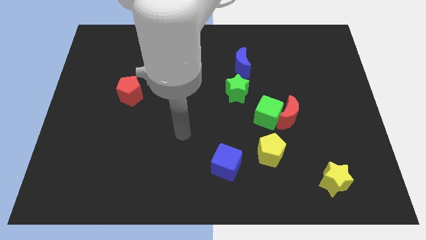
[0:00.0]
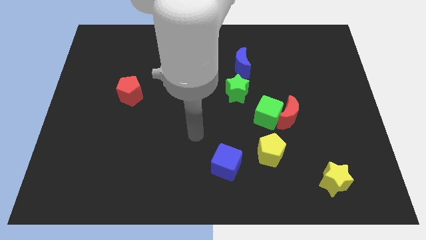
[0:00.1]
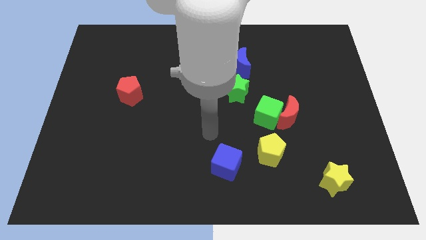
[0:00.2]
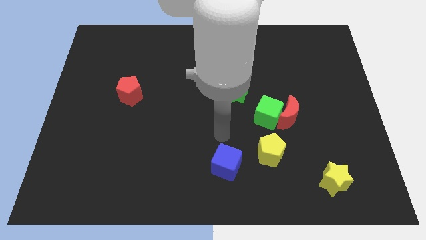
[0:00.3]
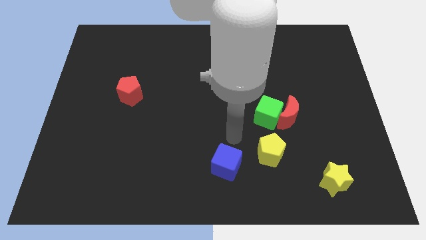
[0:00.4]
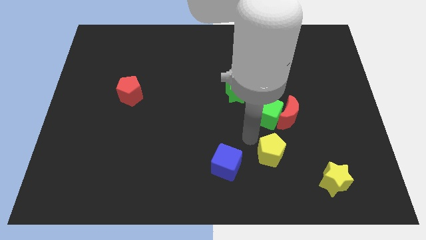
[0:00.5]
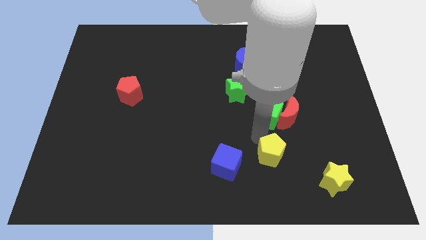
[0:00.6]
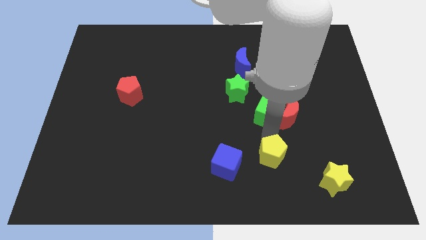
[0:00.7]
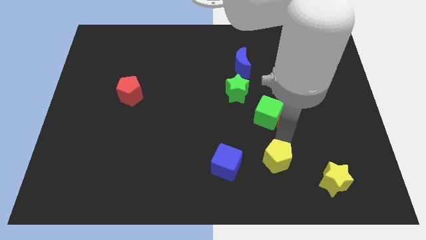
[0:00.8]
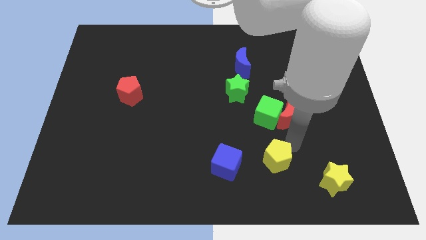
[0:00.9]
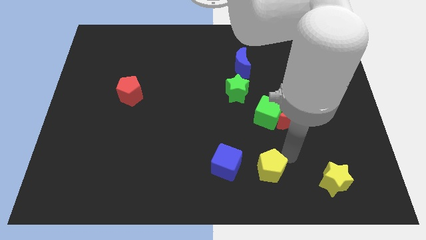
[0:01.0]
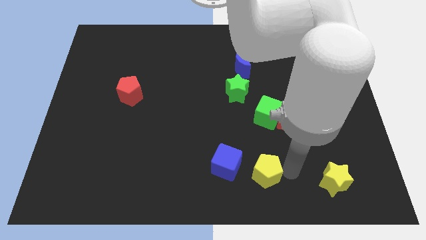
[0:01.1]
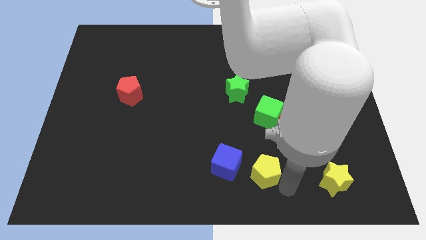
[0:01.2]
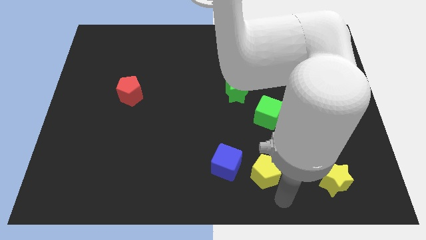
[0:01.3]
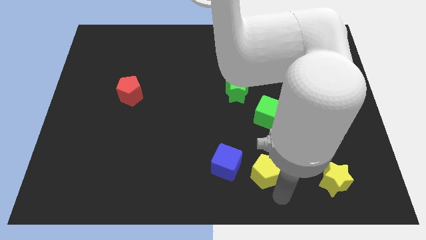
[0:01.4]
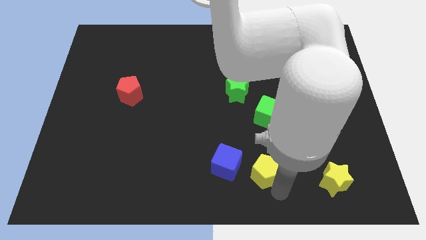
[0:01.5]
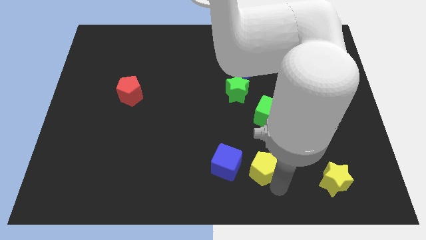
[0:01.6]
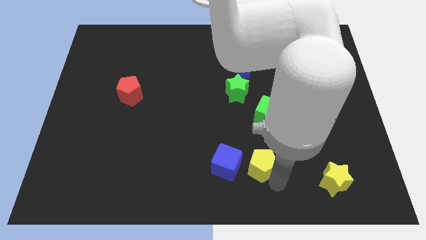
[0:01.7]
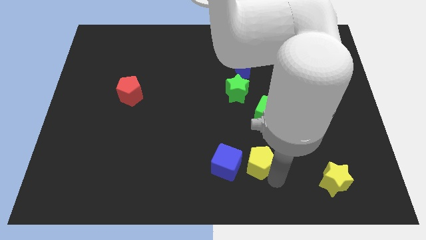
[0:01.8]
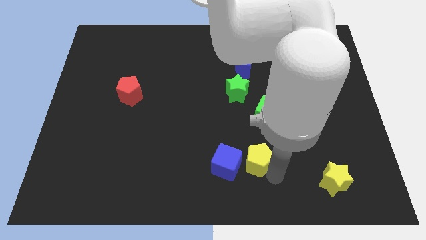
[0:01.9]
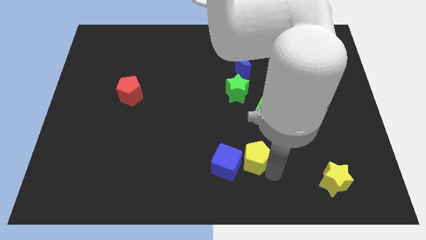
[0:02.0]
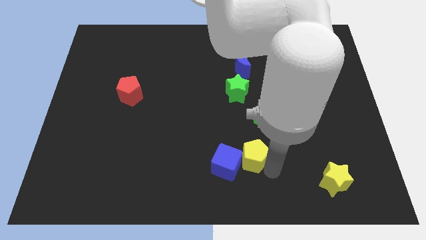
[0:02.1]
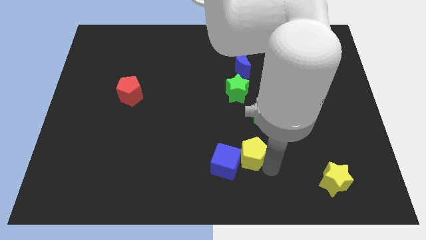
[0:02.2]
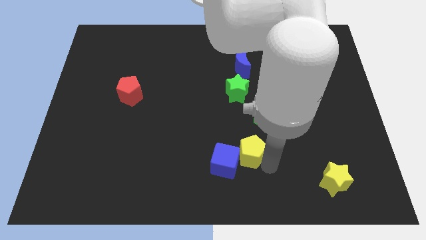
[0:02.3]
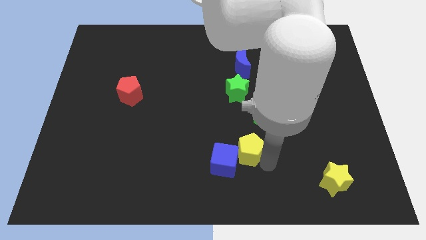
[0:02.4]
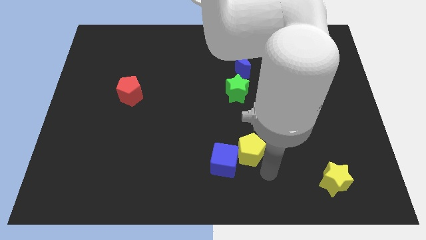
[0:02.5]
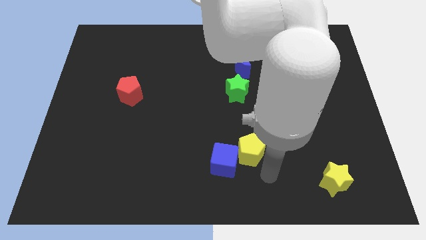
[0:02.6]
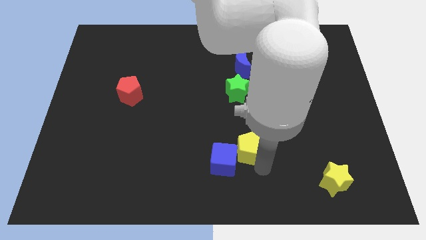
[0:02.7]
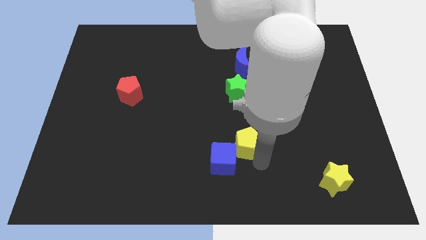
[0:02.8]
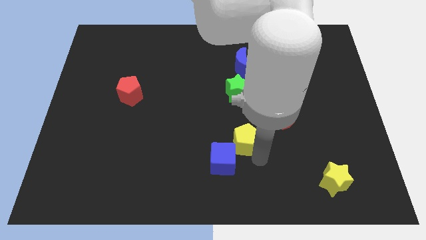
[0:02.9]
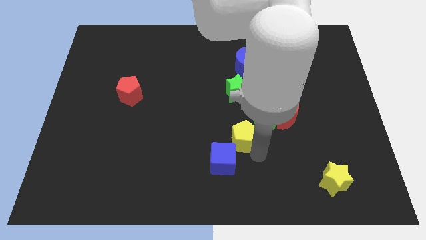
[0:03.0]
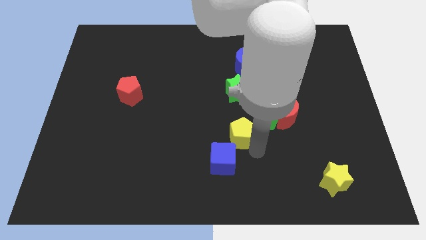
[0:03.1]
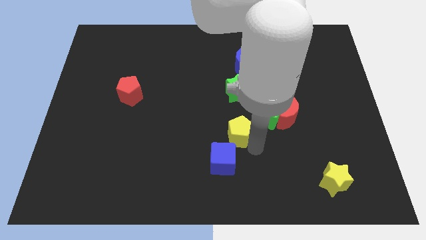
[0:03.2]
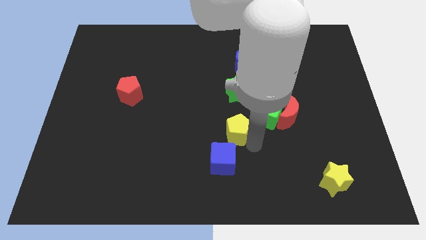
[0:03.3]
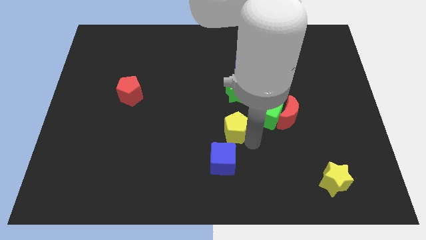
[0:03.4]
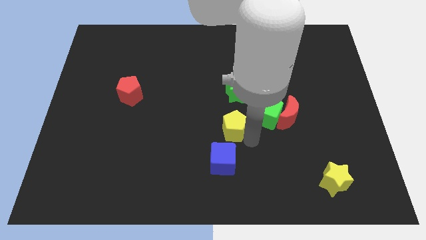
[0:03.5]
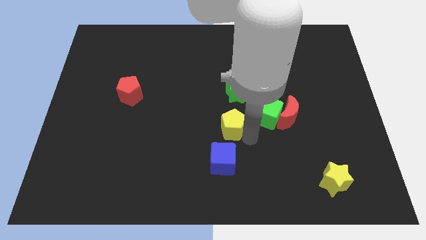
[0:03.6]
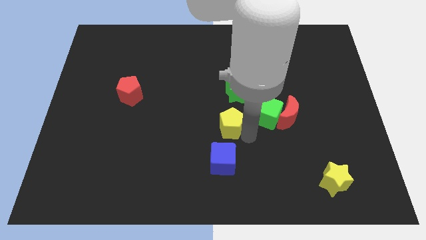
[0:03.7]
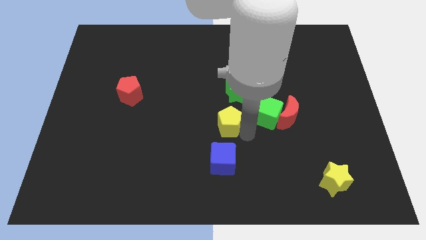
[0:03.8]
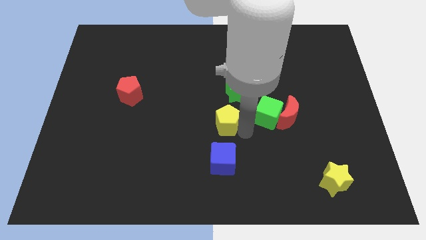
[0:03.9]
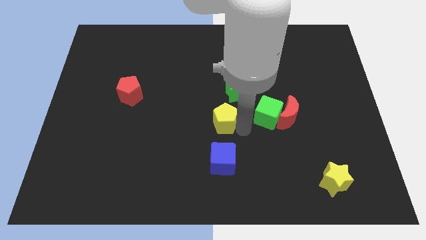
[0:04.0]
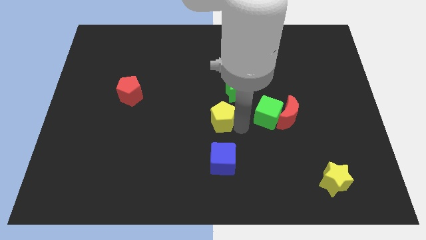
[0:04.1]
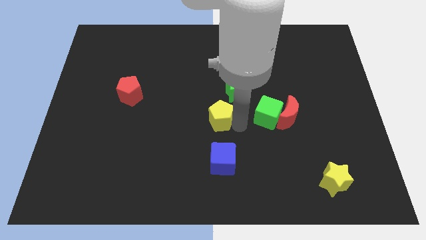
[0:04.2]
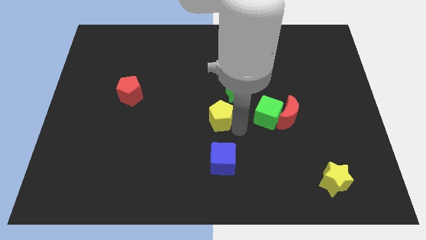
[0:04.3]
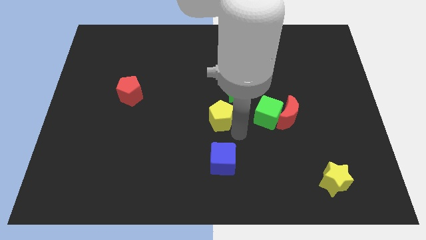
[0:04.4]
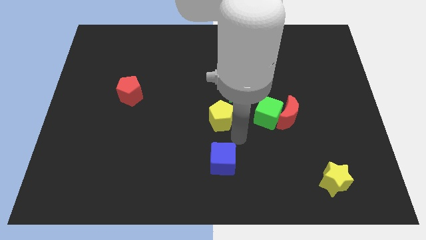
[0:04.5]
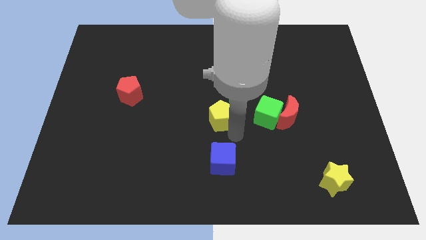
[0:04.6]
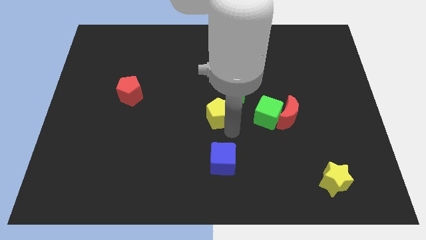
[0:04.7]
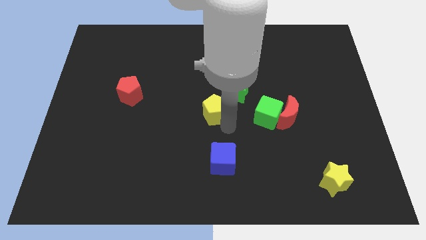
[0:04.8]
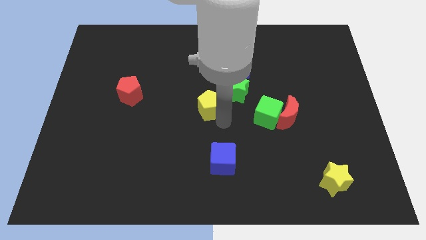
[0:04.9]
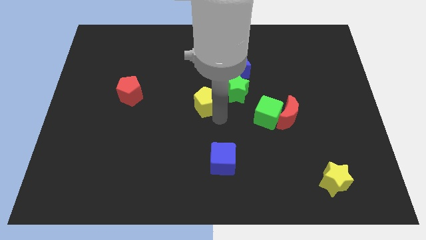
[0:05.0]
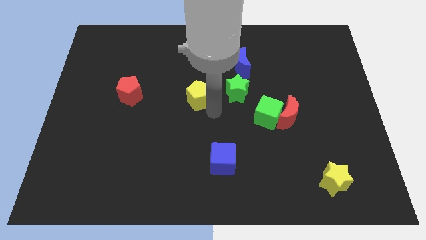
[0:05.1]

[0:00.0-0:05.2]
slide the yellow pentagon upwards and then to the left

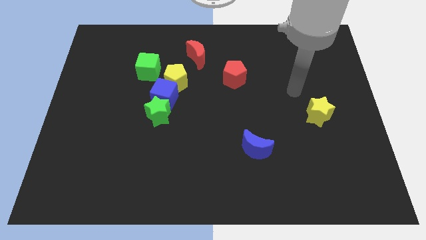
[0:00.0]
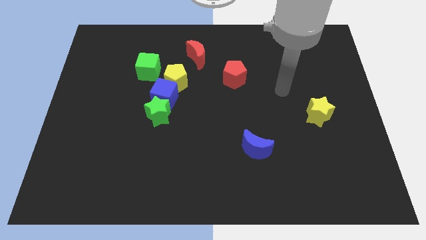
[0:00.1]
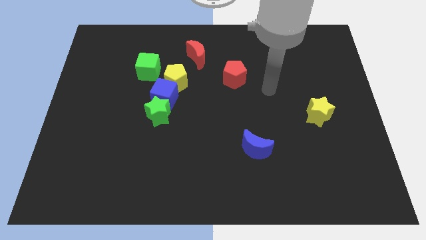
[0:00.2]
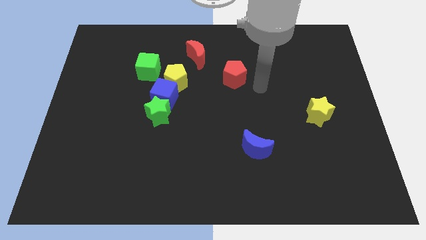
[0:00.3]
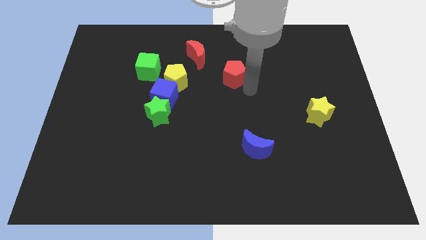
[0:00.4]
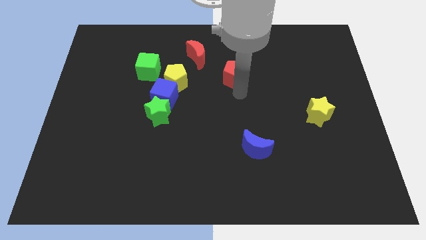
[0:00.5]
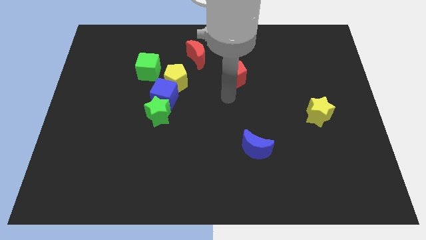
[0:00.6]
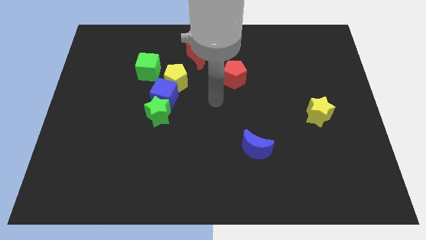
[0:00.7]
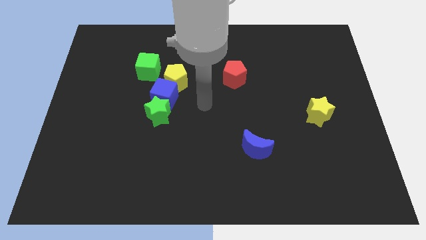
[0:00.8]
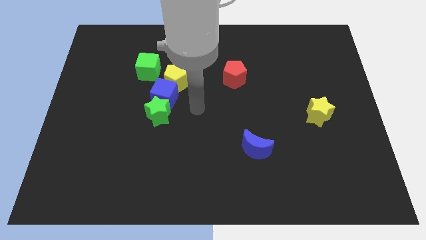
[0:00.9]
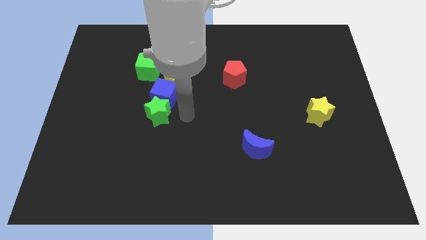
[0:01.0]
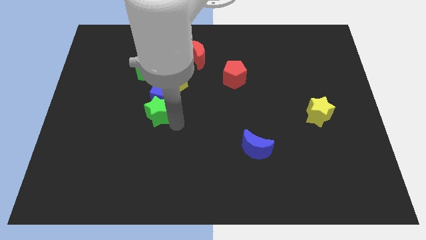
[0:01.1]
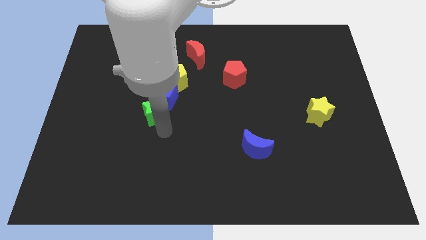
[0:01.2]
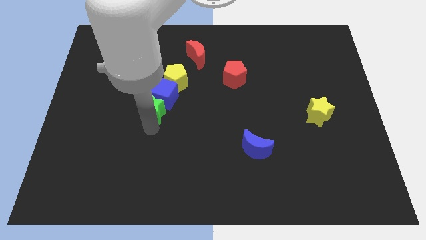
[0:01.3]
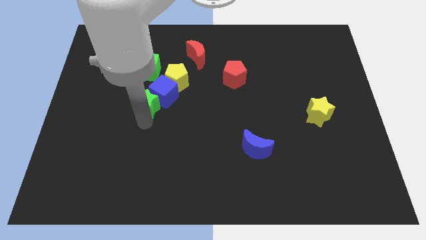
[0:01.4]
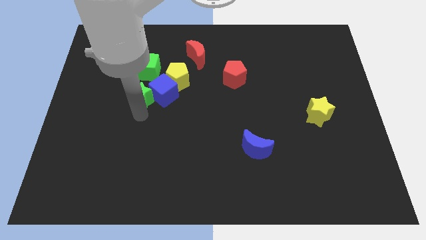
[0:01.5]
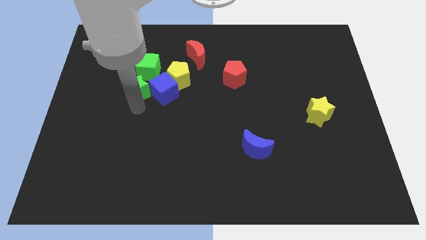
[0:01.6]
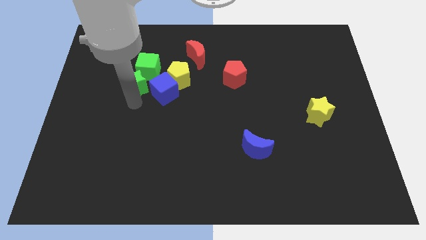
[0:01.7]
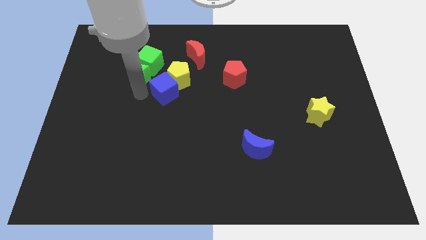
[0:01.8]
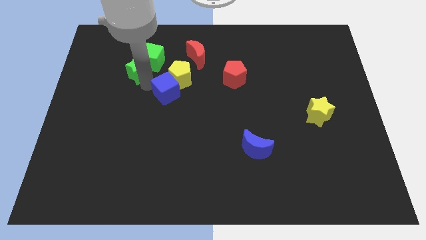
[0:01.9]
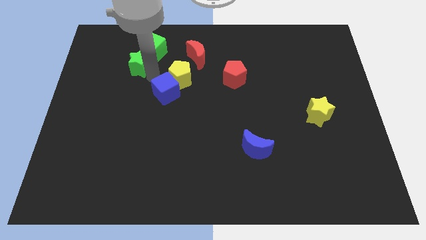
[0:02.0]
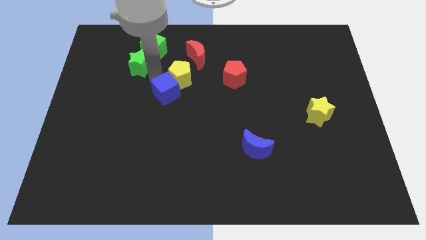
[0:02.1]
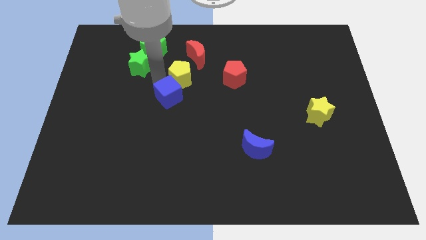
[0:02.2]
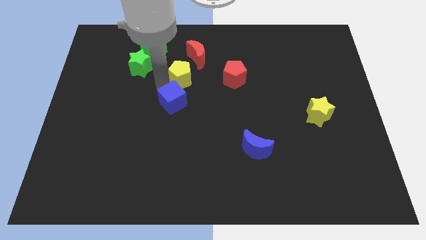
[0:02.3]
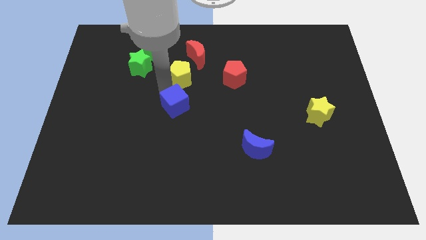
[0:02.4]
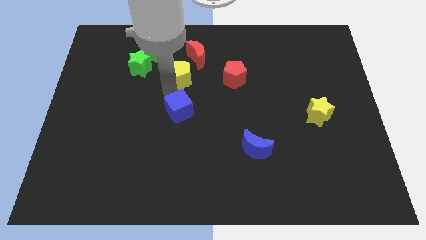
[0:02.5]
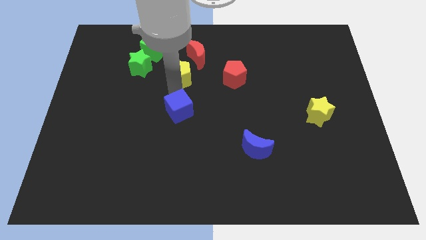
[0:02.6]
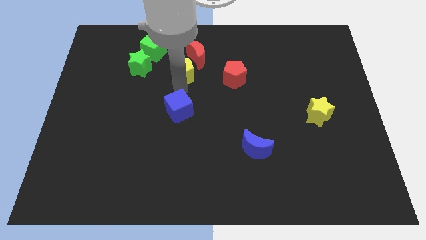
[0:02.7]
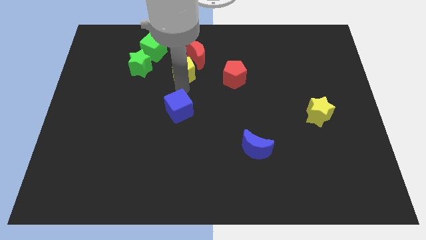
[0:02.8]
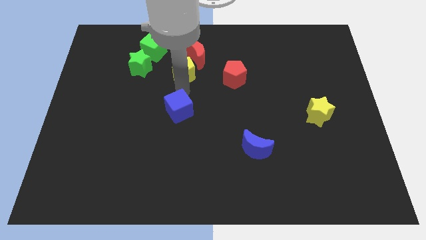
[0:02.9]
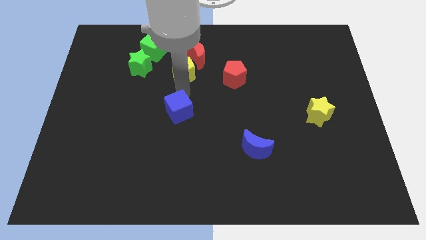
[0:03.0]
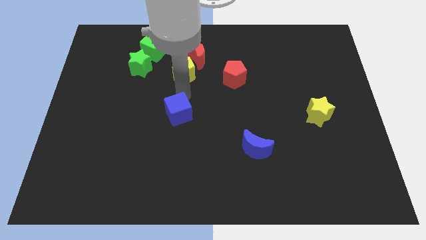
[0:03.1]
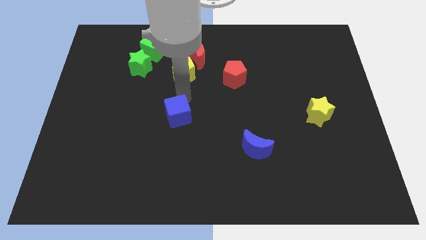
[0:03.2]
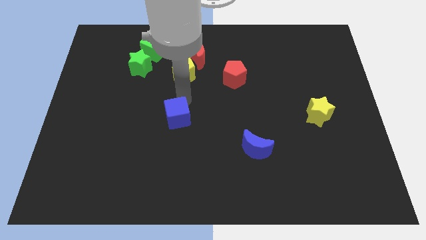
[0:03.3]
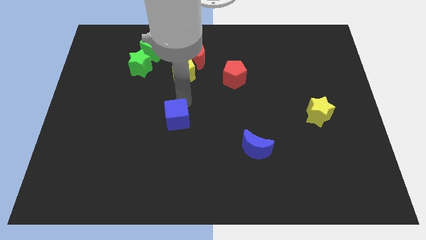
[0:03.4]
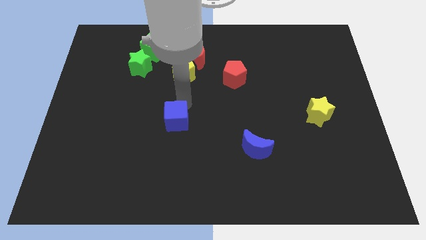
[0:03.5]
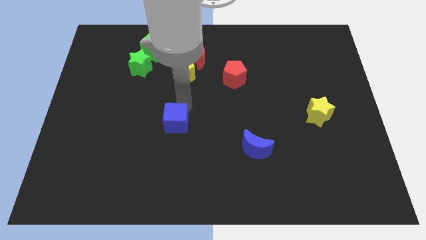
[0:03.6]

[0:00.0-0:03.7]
slightly push the blue cube down
